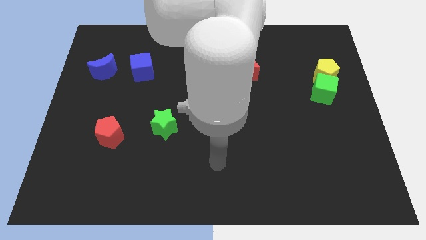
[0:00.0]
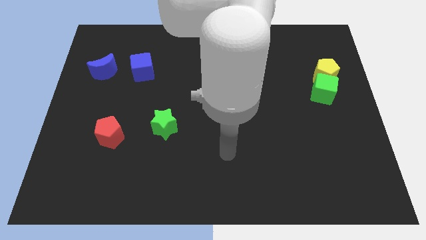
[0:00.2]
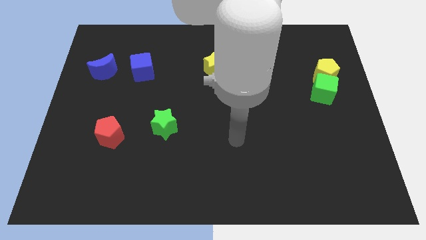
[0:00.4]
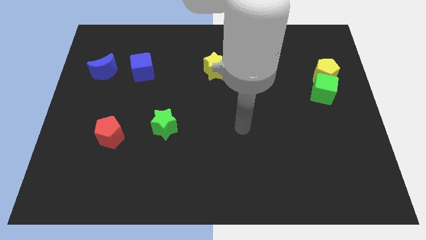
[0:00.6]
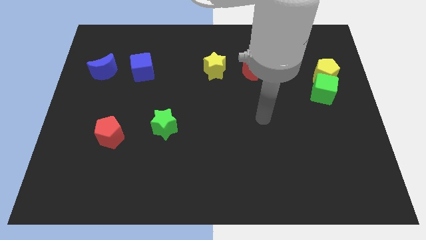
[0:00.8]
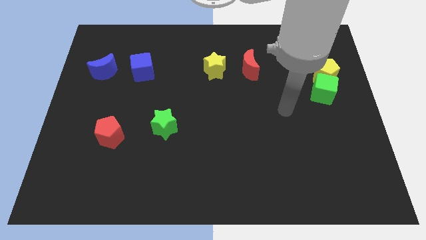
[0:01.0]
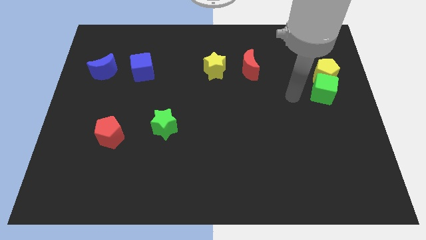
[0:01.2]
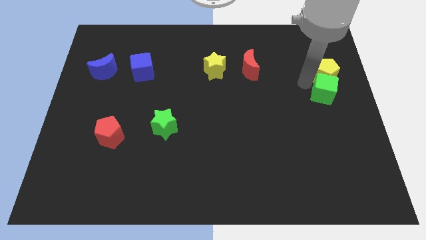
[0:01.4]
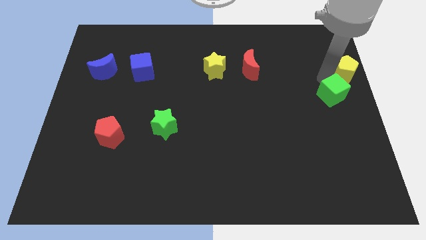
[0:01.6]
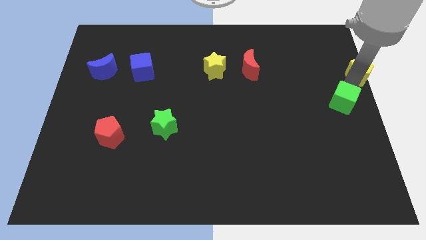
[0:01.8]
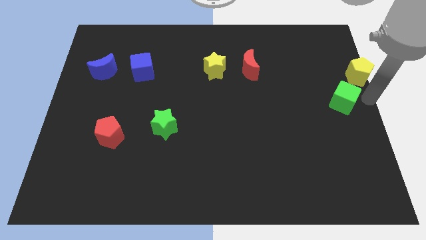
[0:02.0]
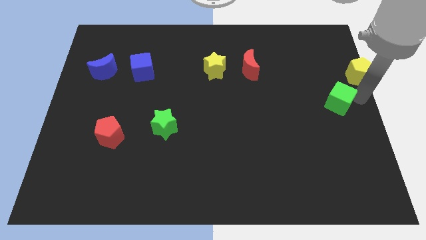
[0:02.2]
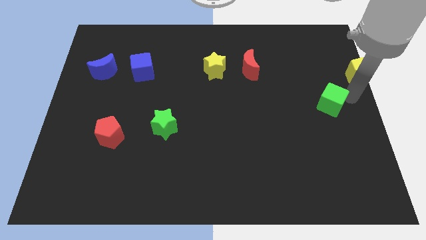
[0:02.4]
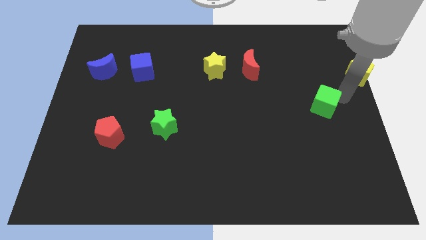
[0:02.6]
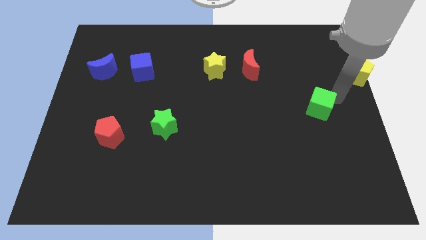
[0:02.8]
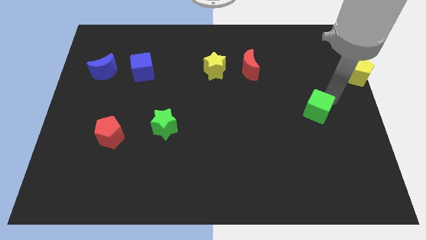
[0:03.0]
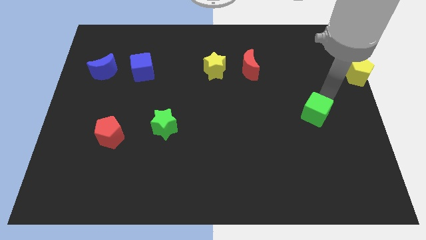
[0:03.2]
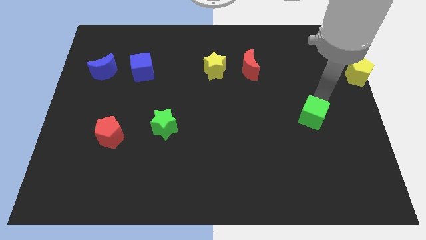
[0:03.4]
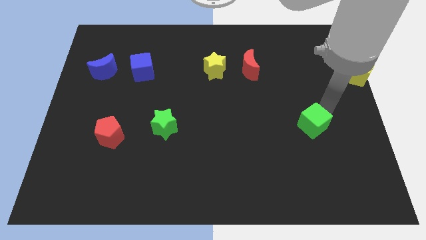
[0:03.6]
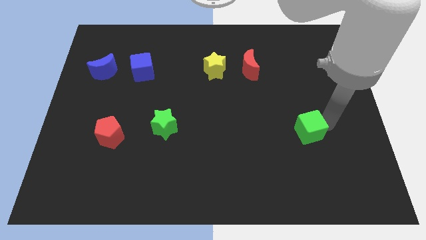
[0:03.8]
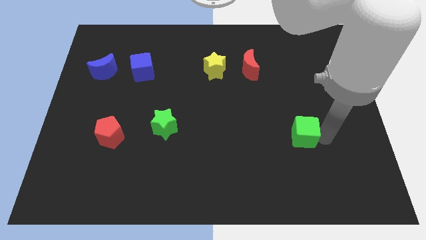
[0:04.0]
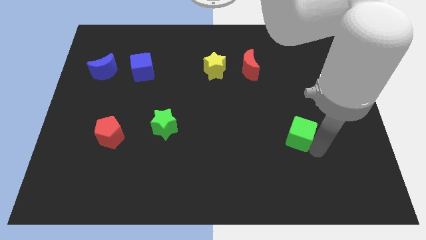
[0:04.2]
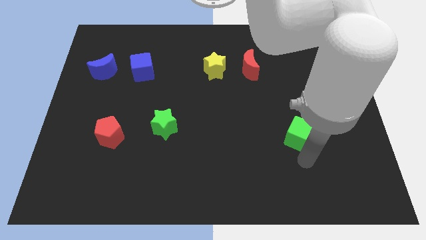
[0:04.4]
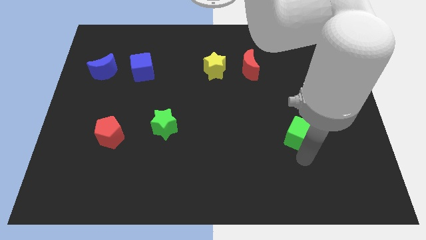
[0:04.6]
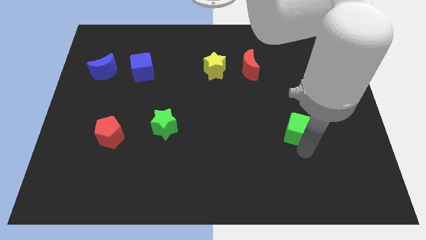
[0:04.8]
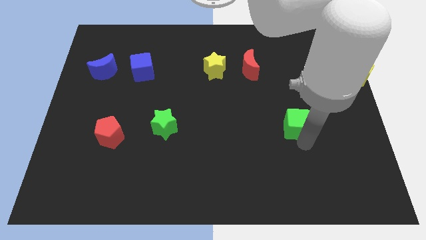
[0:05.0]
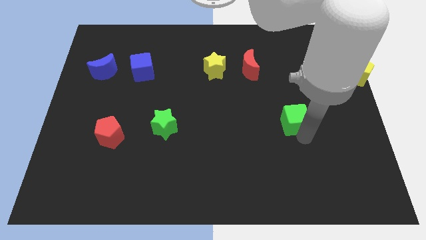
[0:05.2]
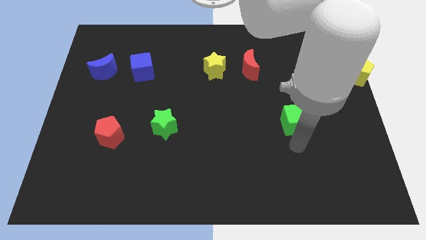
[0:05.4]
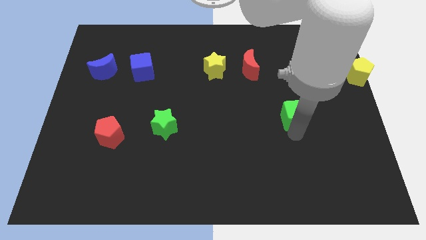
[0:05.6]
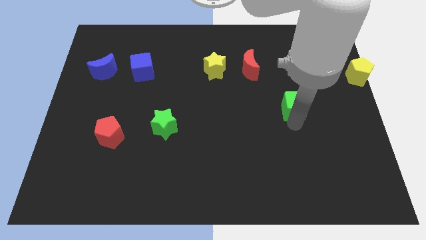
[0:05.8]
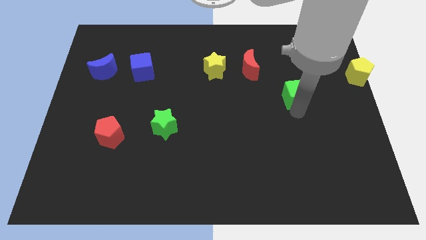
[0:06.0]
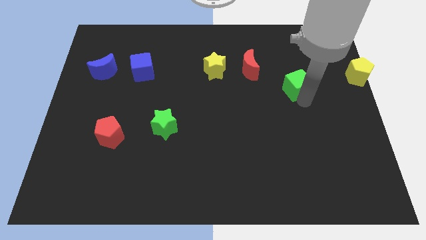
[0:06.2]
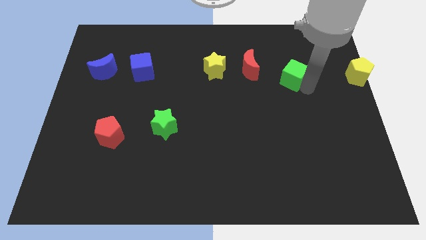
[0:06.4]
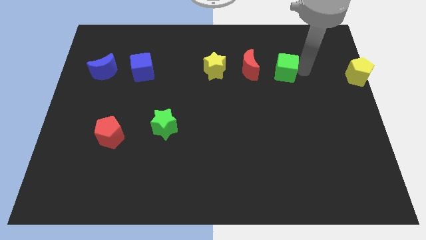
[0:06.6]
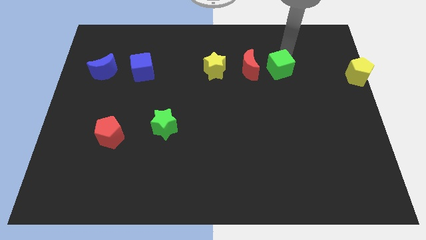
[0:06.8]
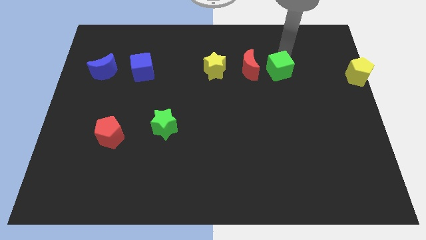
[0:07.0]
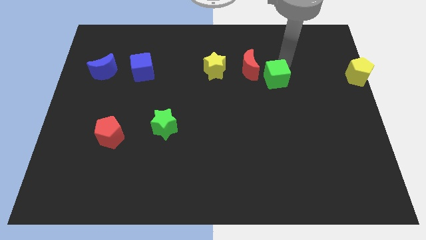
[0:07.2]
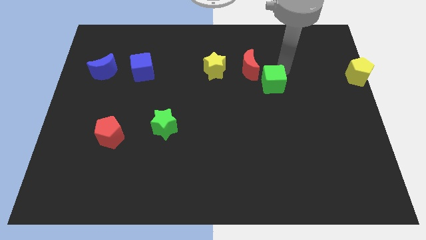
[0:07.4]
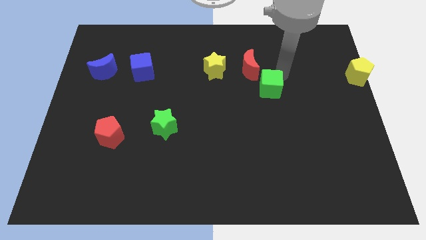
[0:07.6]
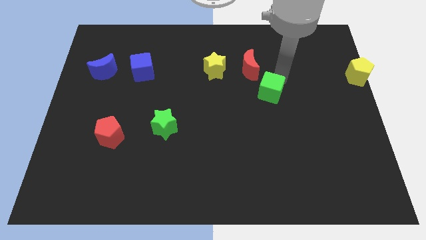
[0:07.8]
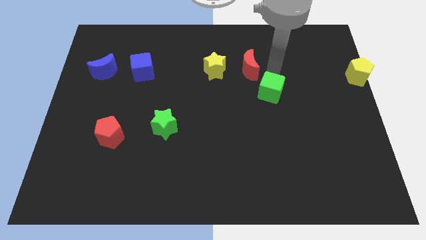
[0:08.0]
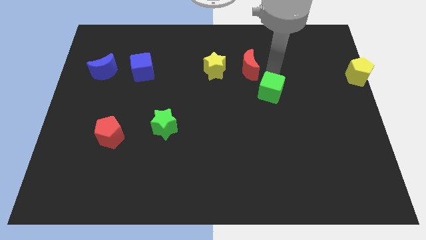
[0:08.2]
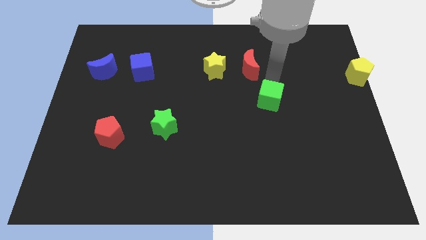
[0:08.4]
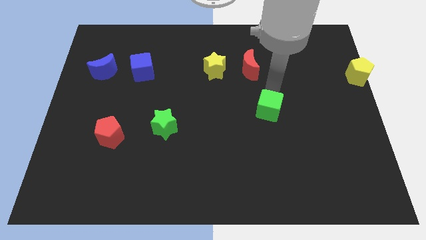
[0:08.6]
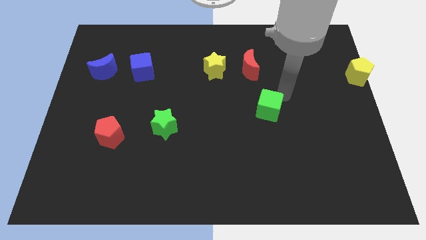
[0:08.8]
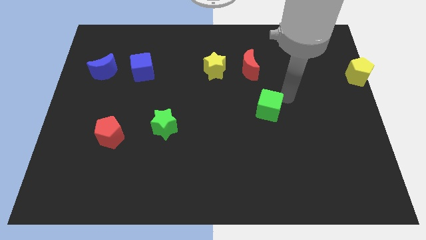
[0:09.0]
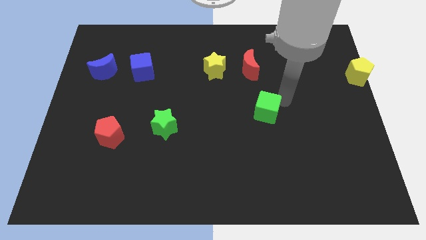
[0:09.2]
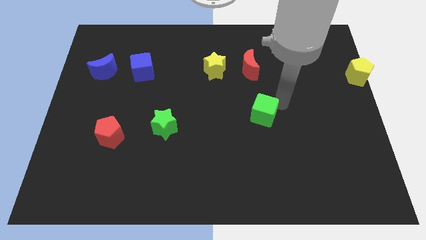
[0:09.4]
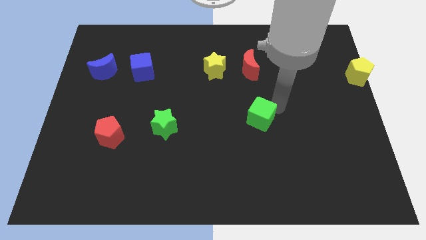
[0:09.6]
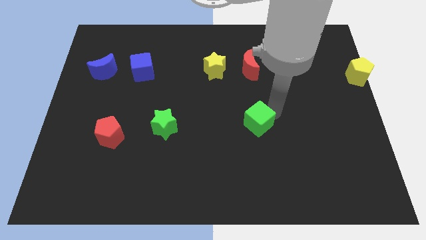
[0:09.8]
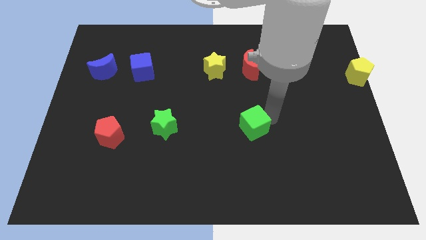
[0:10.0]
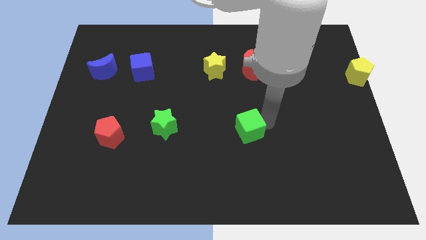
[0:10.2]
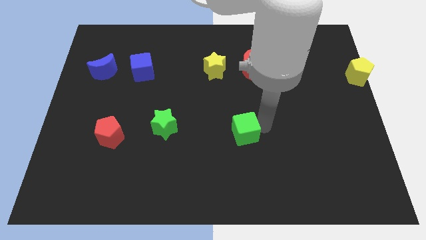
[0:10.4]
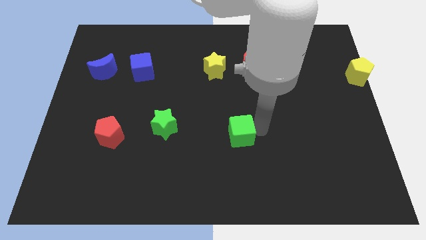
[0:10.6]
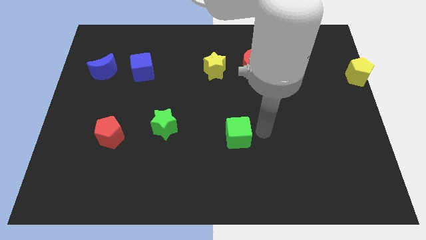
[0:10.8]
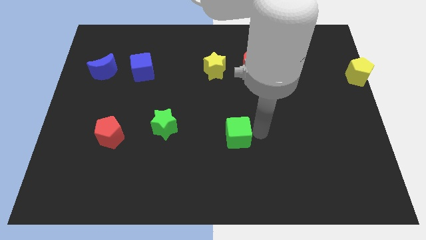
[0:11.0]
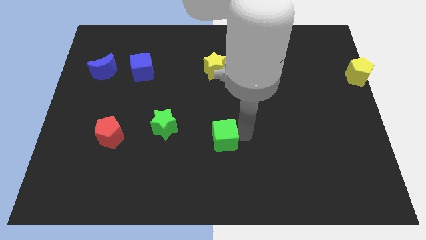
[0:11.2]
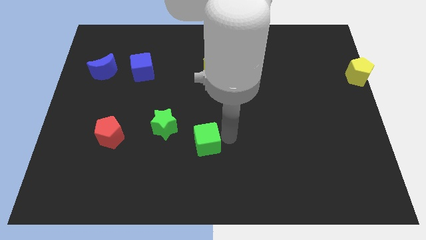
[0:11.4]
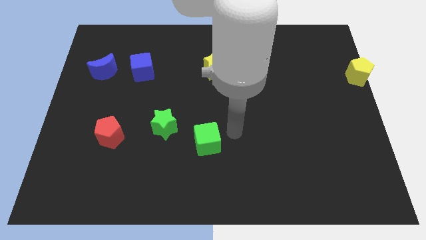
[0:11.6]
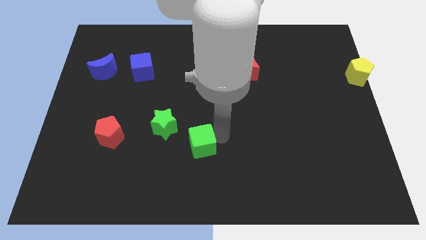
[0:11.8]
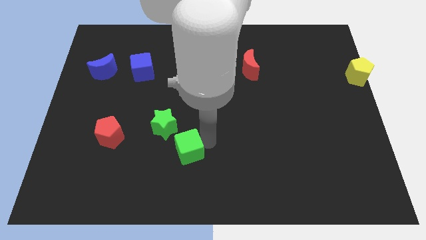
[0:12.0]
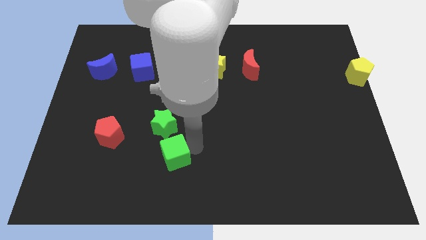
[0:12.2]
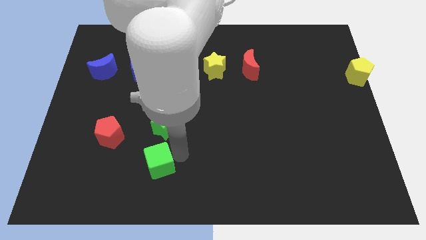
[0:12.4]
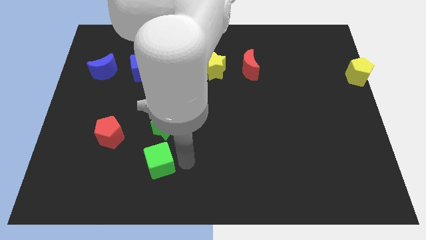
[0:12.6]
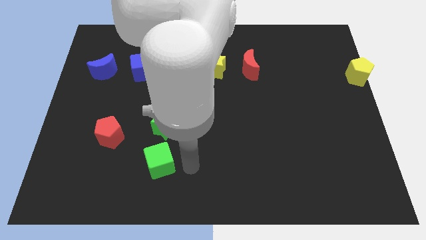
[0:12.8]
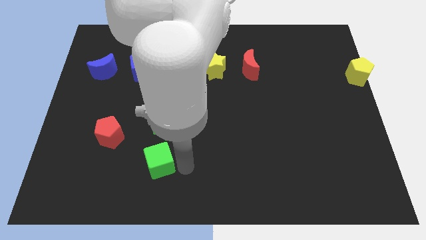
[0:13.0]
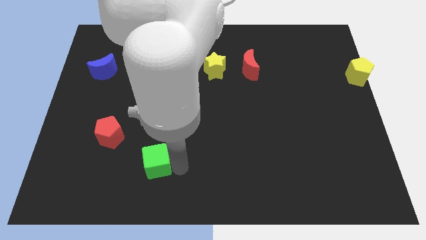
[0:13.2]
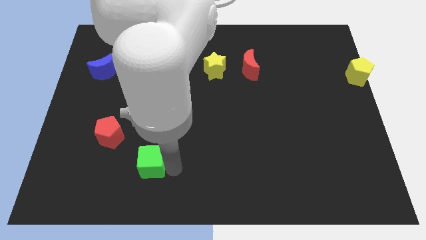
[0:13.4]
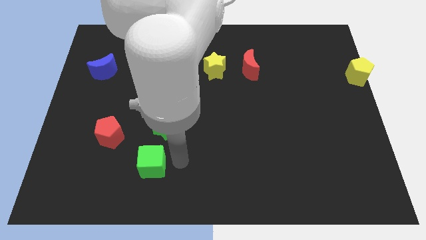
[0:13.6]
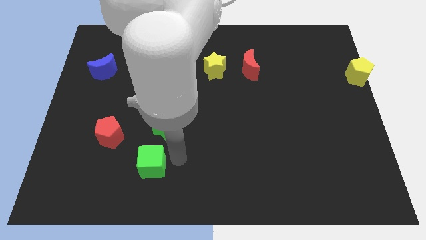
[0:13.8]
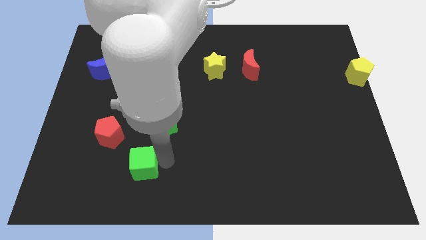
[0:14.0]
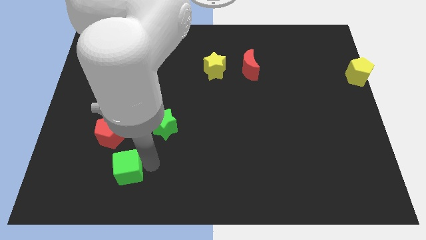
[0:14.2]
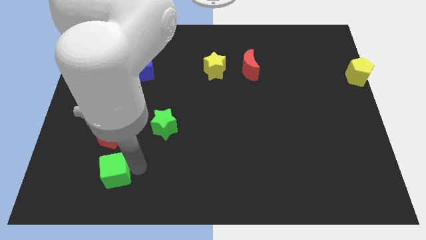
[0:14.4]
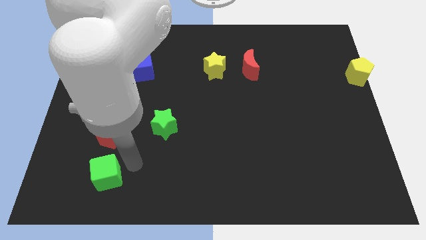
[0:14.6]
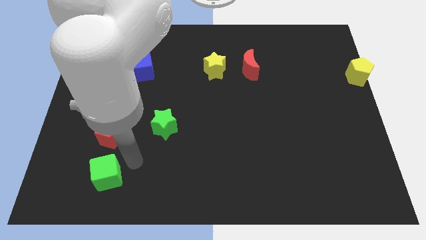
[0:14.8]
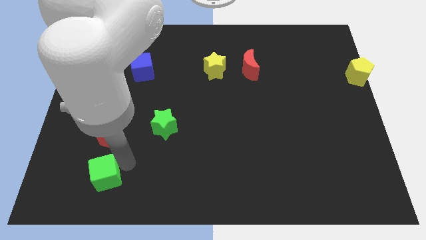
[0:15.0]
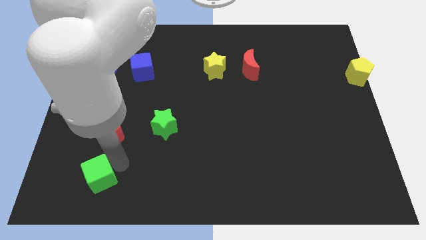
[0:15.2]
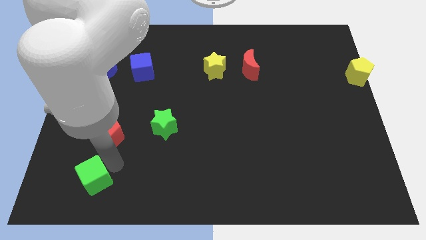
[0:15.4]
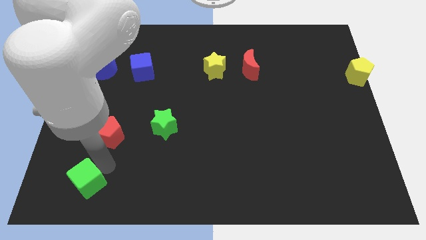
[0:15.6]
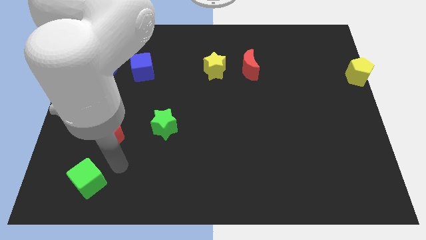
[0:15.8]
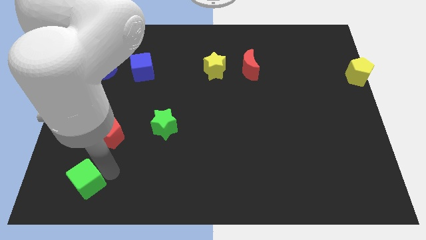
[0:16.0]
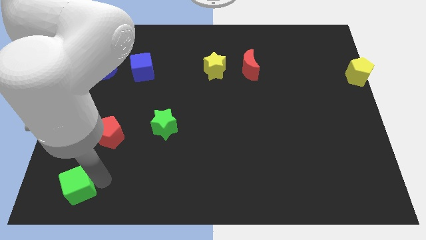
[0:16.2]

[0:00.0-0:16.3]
move the green cube to the bottom left corner

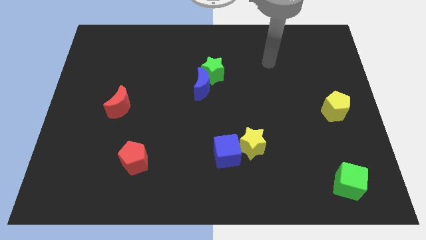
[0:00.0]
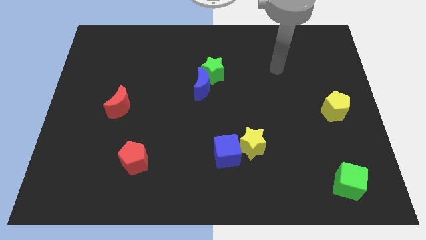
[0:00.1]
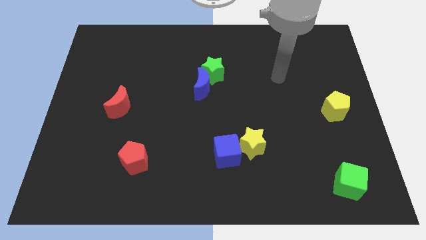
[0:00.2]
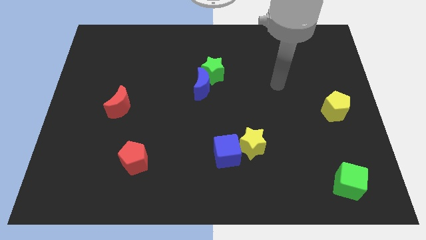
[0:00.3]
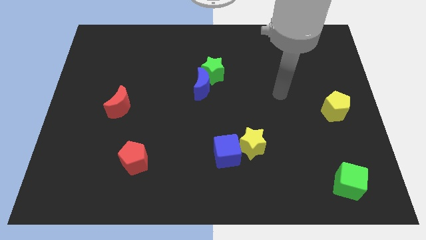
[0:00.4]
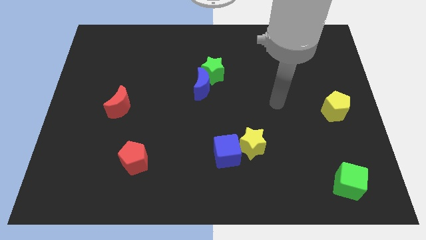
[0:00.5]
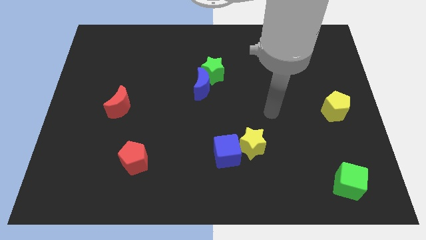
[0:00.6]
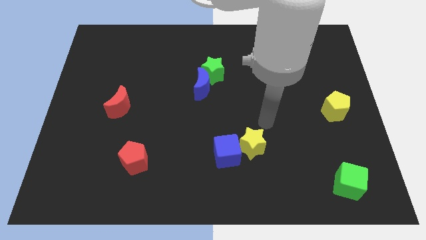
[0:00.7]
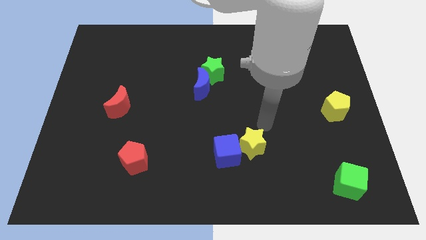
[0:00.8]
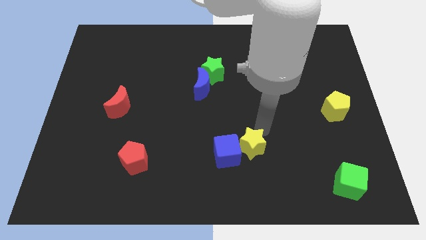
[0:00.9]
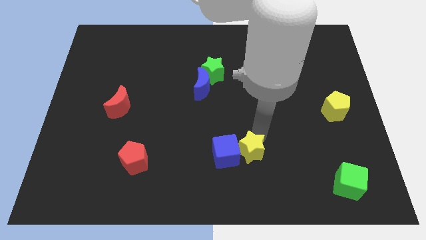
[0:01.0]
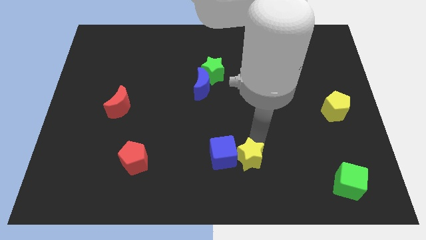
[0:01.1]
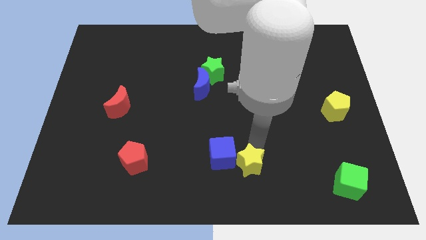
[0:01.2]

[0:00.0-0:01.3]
slide the yellow star to the bottom side
